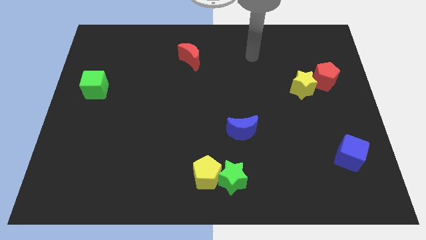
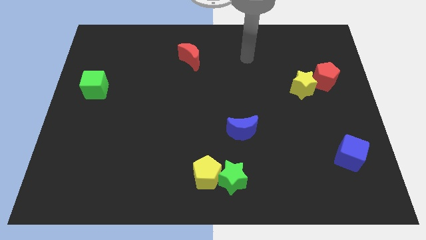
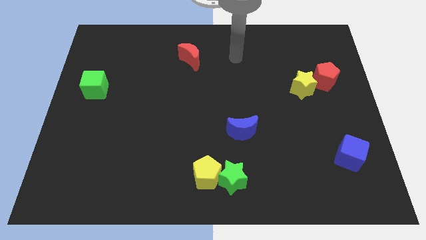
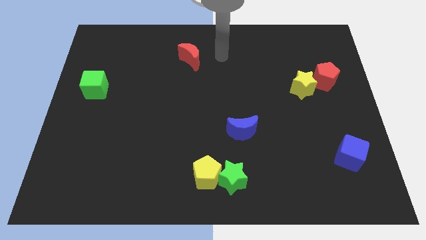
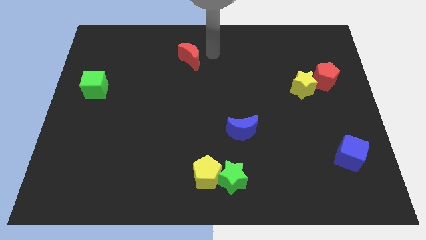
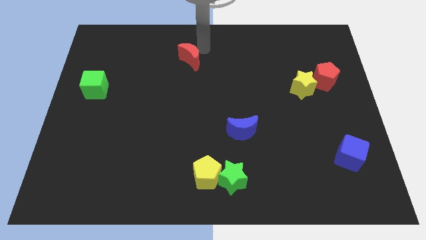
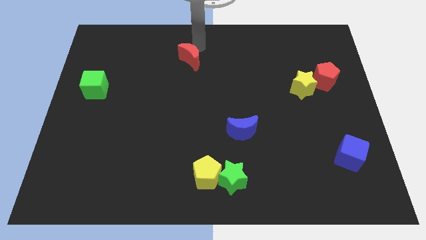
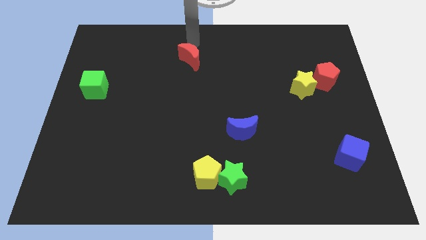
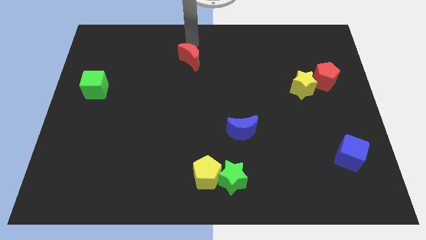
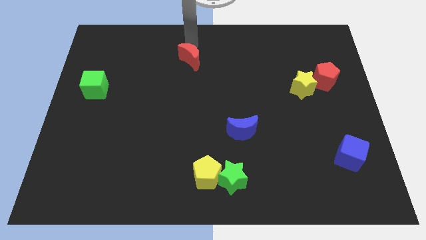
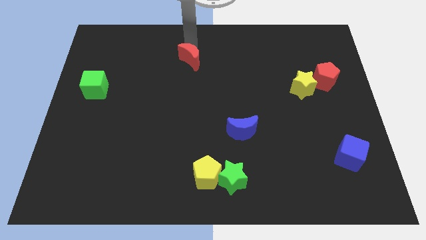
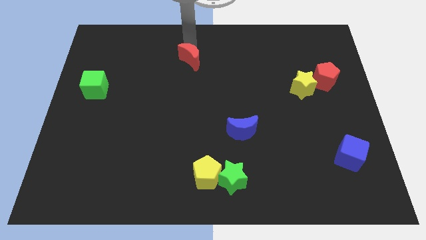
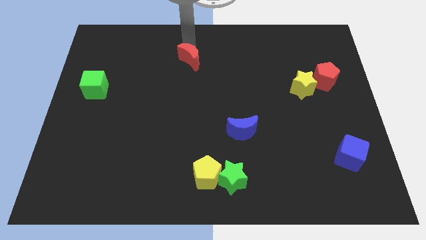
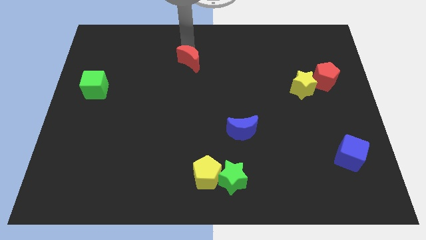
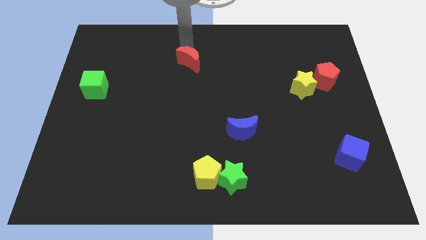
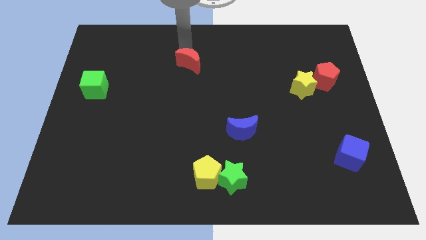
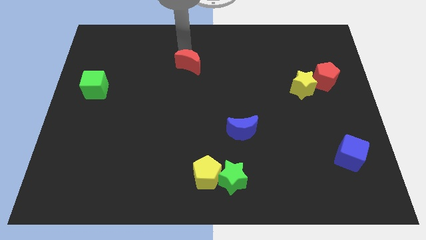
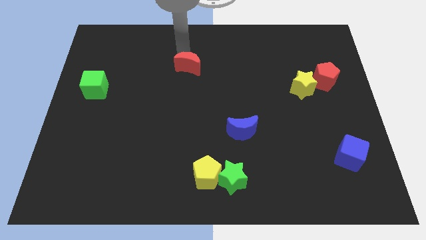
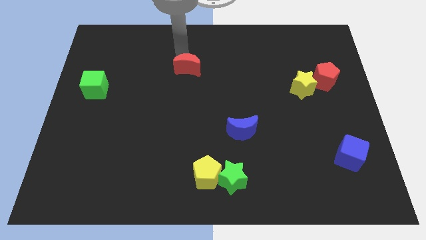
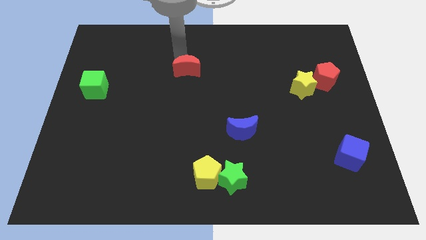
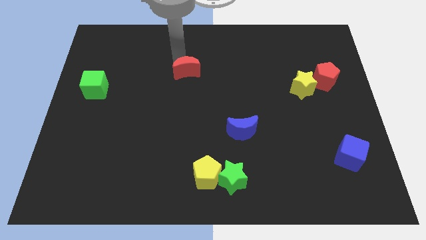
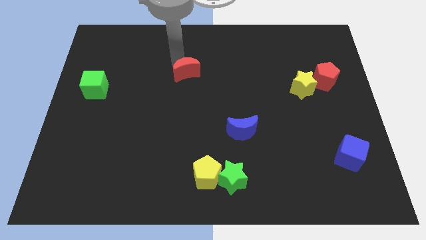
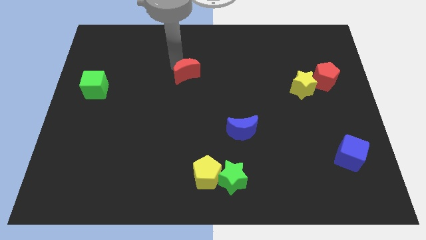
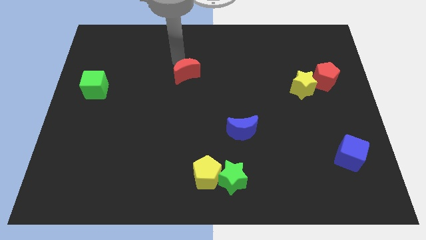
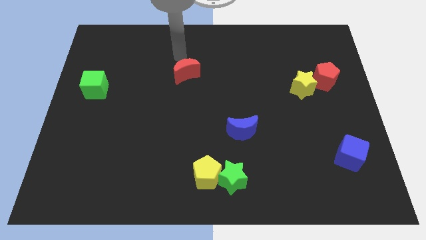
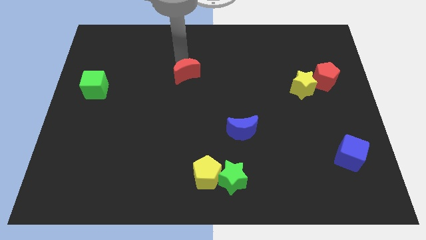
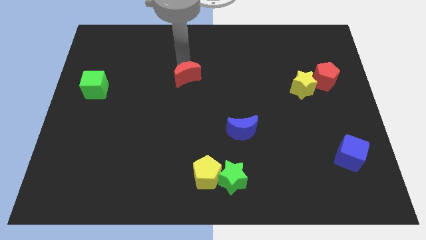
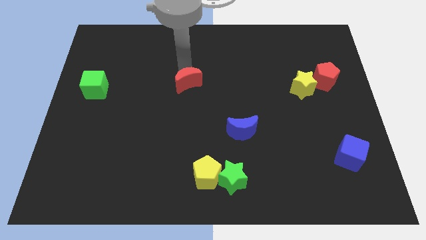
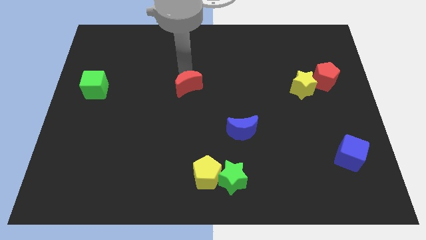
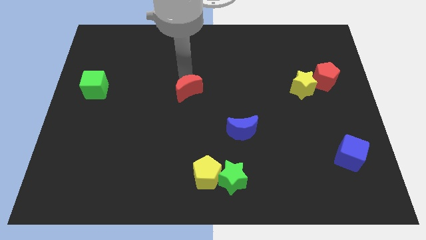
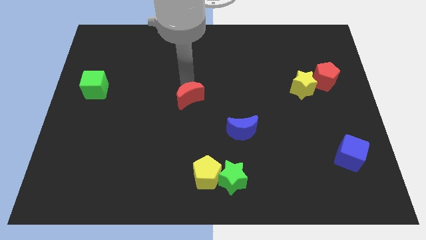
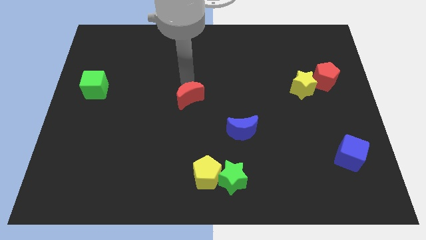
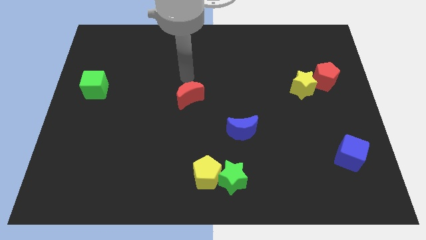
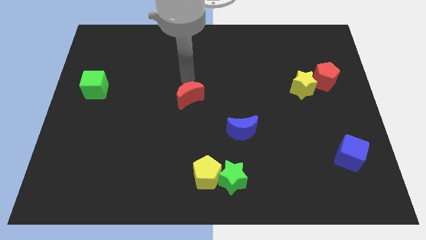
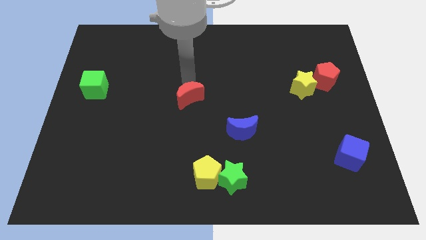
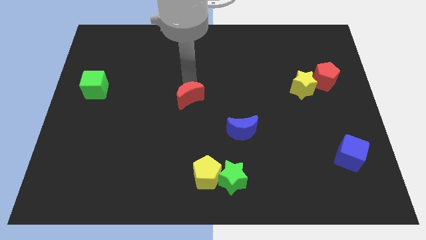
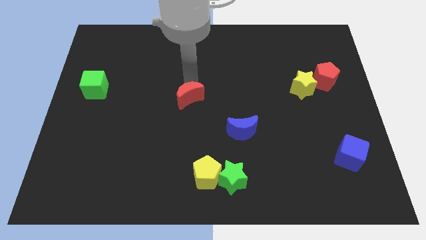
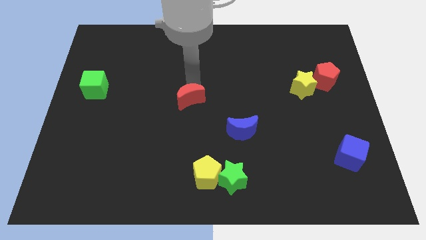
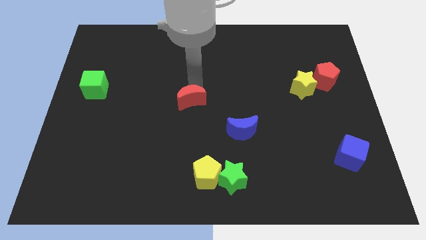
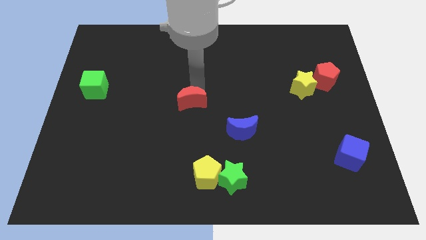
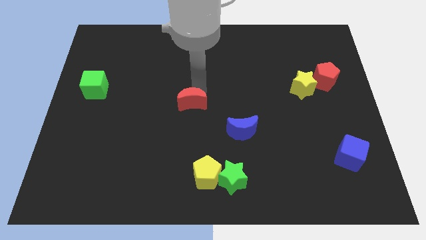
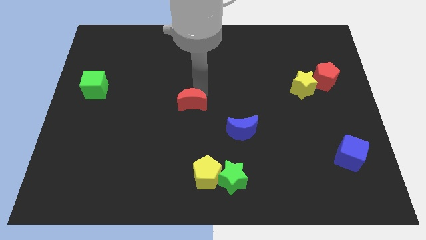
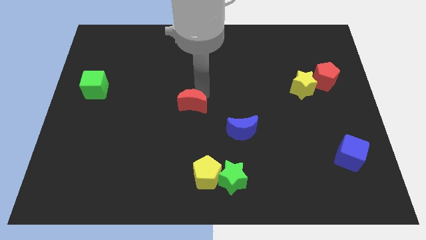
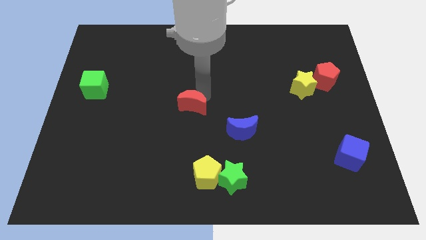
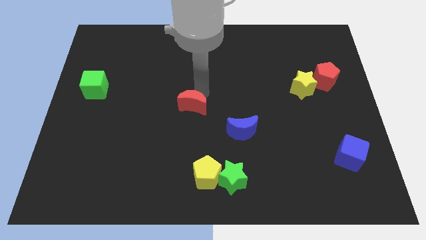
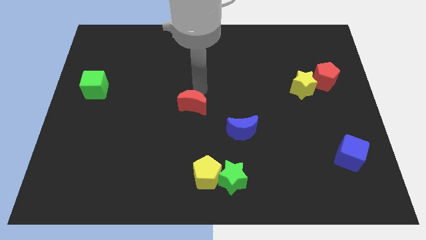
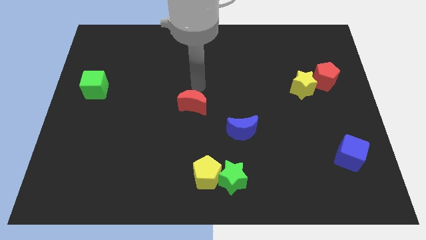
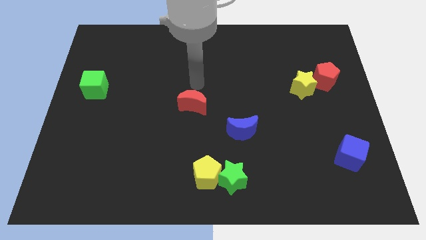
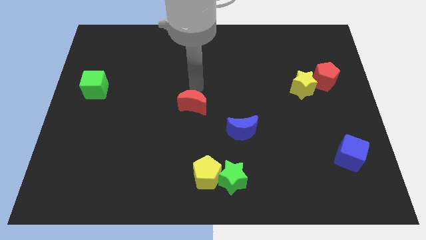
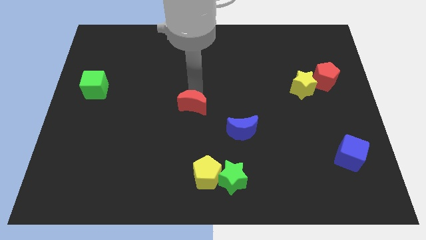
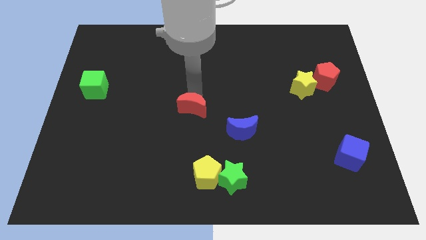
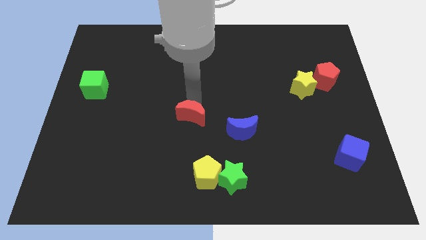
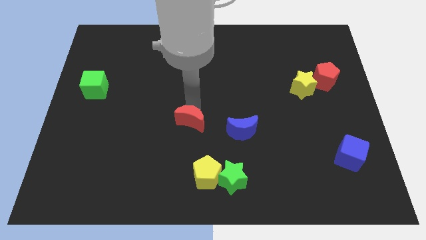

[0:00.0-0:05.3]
move the red moon down

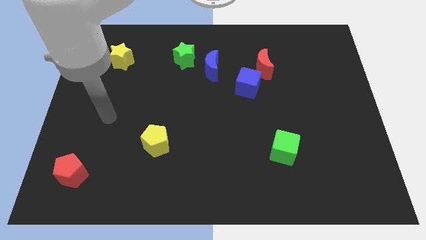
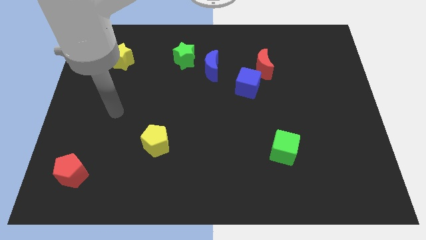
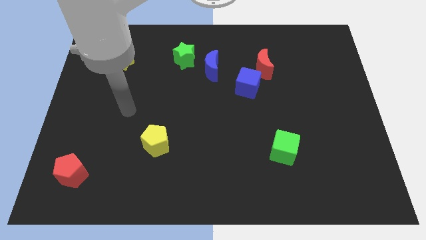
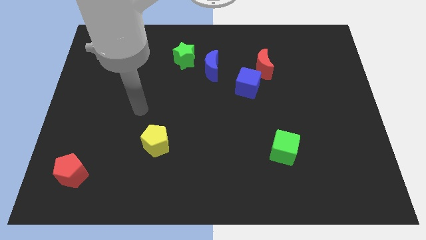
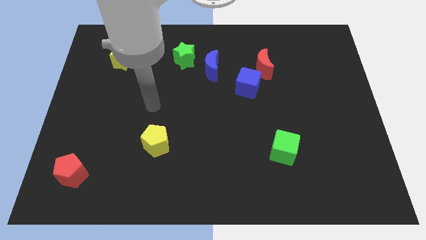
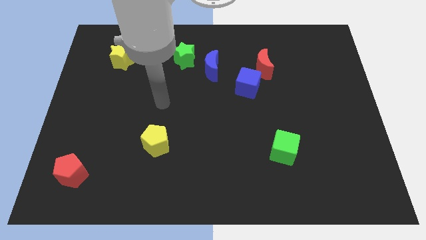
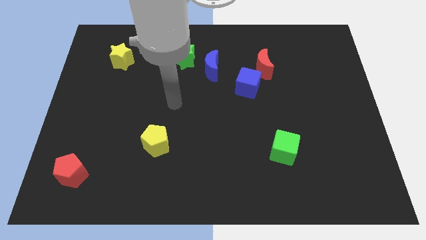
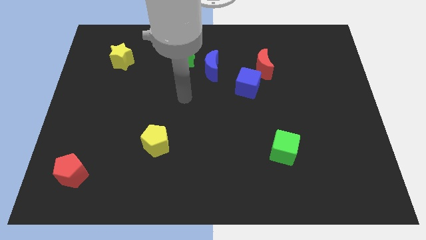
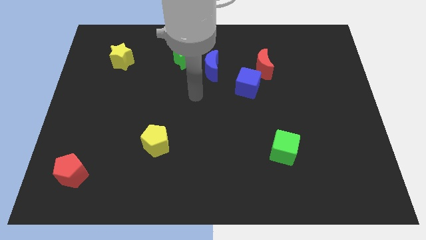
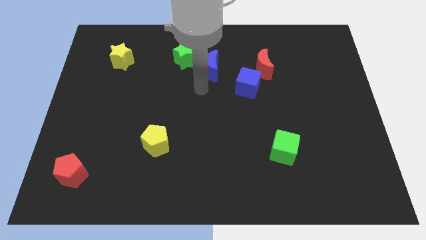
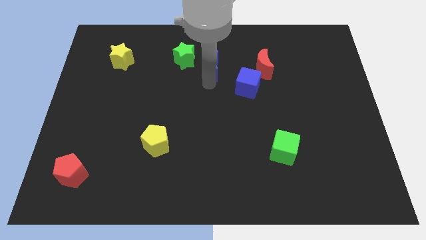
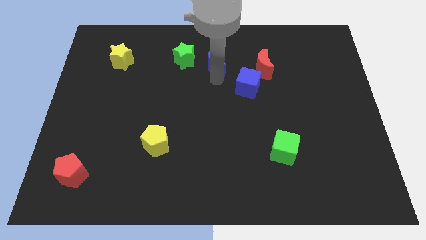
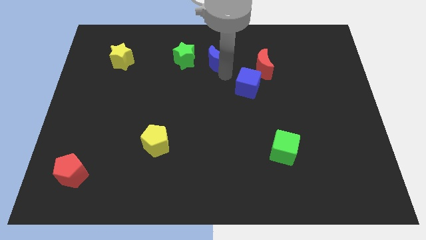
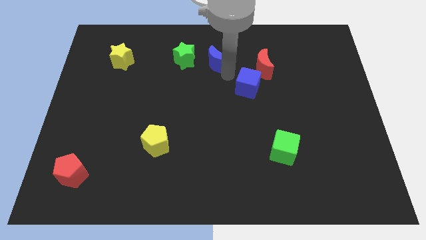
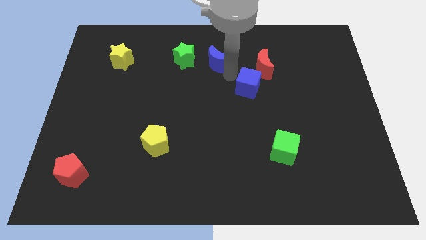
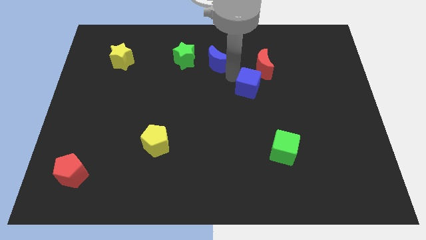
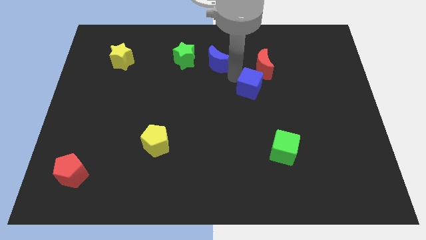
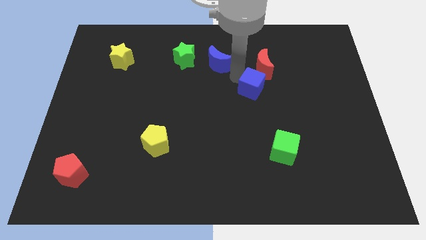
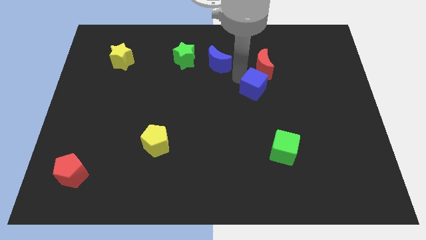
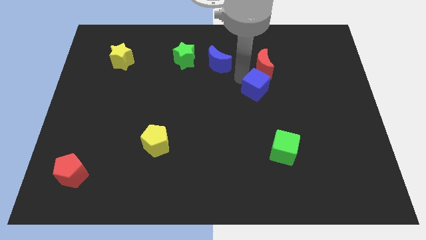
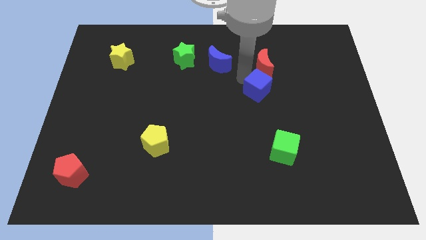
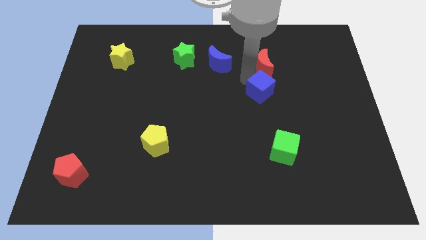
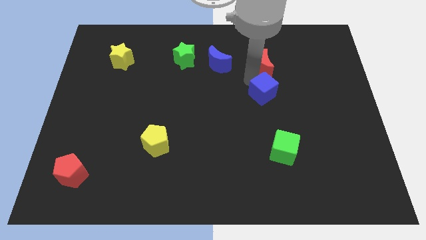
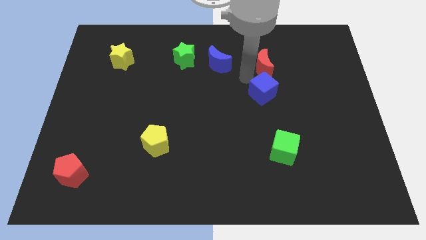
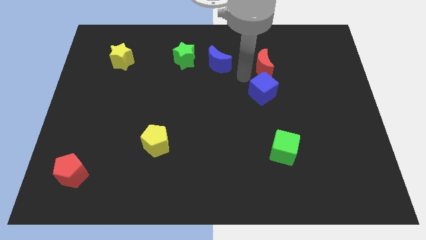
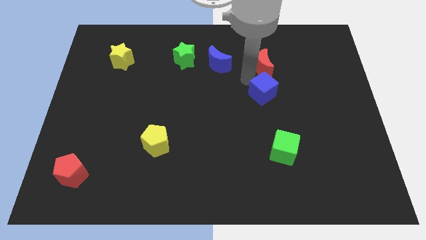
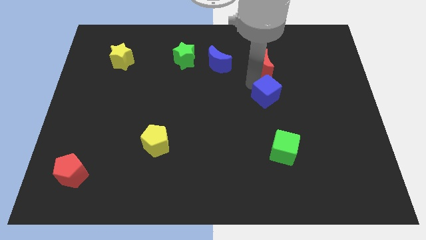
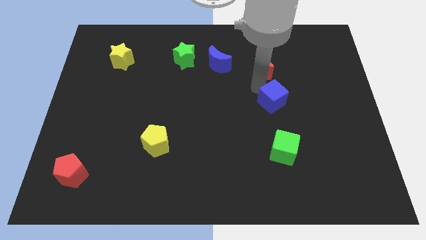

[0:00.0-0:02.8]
move the blue cube downwards and then right a little bit
